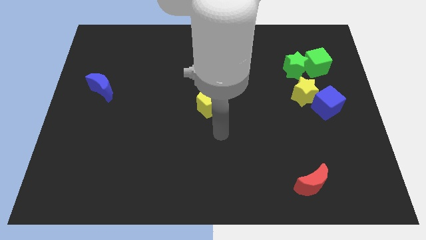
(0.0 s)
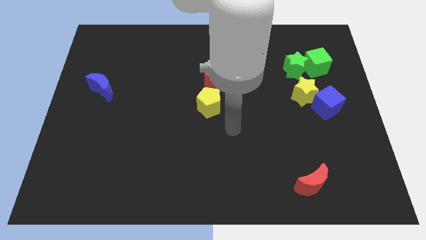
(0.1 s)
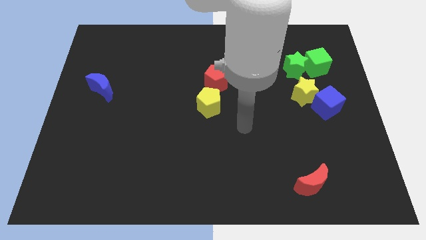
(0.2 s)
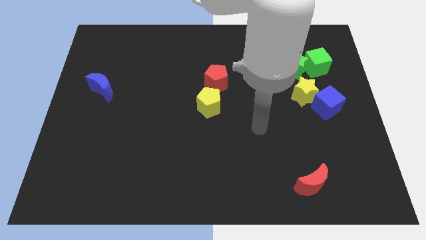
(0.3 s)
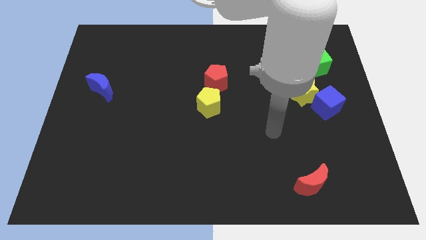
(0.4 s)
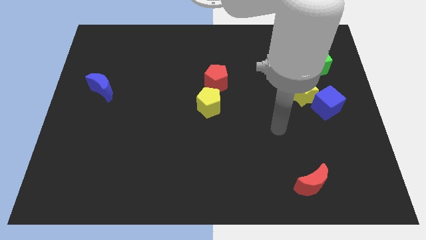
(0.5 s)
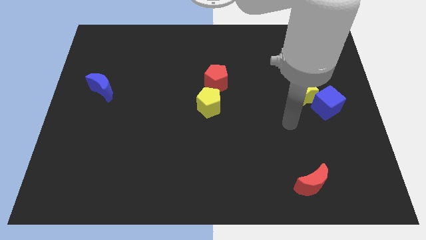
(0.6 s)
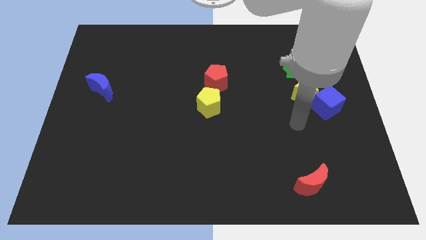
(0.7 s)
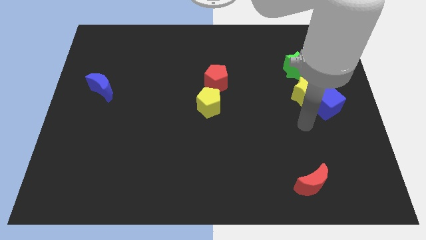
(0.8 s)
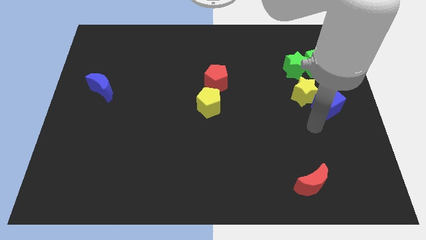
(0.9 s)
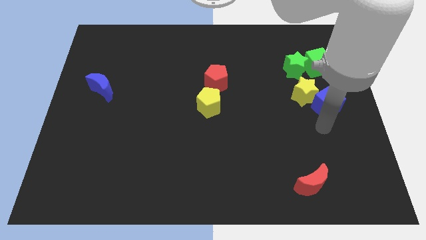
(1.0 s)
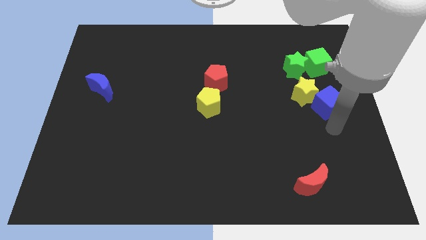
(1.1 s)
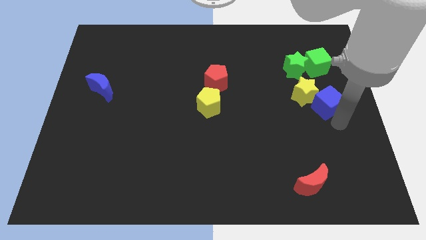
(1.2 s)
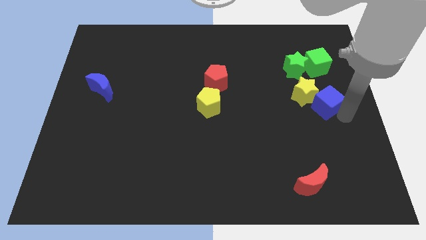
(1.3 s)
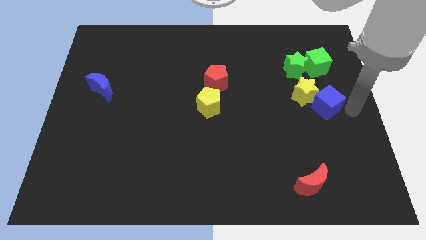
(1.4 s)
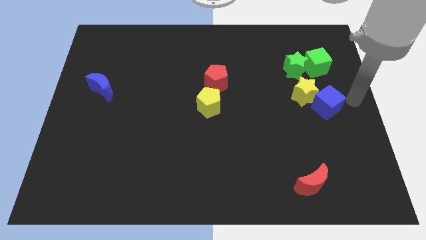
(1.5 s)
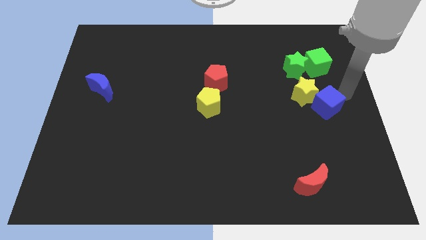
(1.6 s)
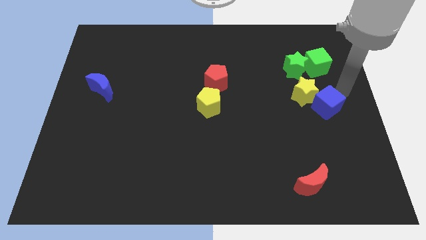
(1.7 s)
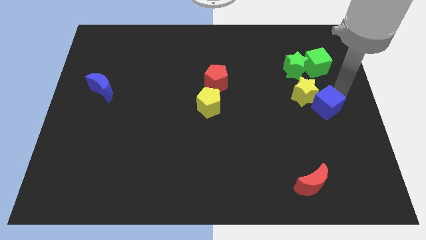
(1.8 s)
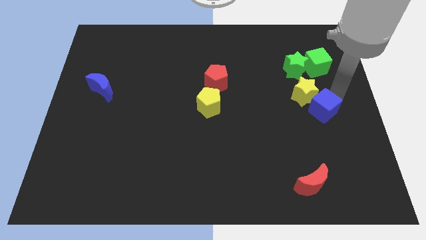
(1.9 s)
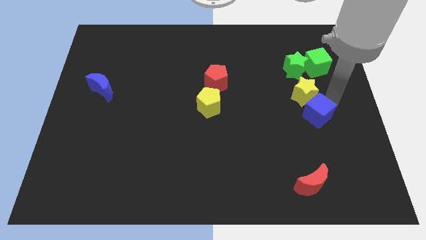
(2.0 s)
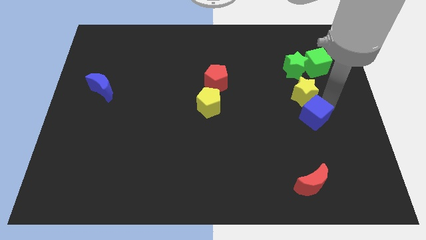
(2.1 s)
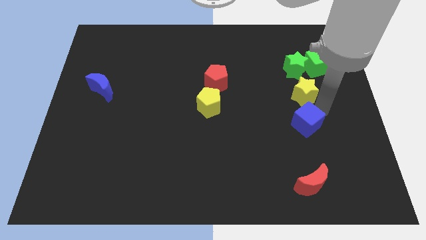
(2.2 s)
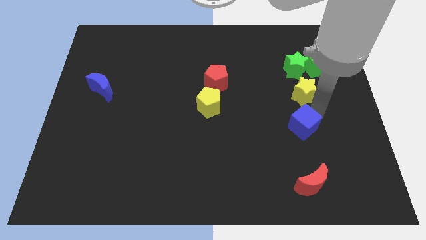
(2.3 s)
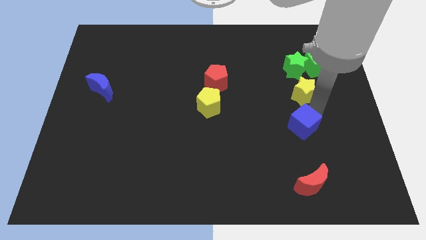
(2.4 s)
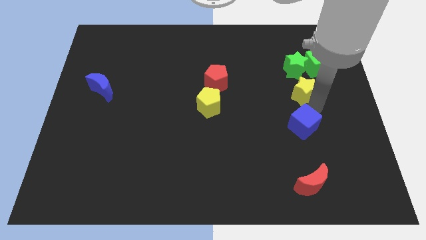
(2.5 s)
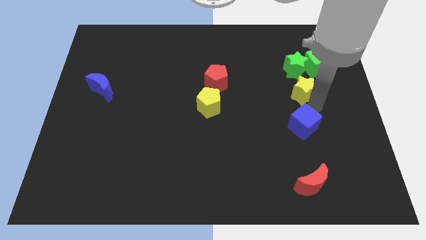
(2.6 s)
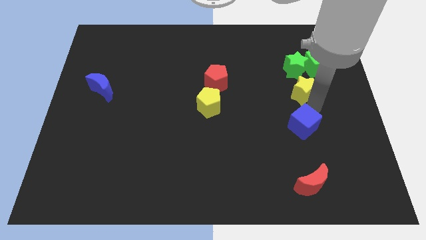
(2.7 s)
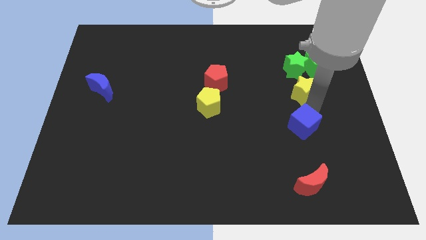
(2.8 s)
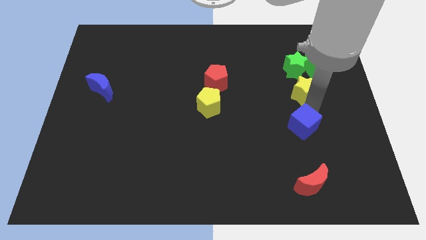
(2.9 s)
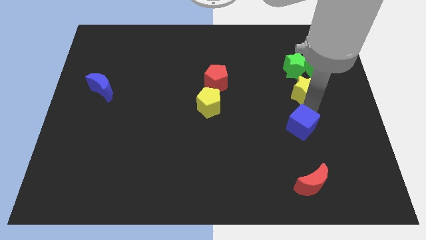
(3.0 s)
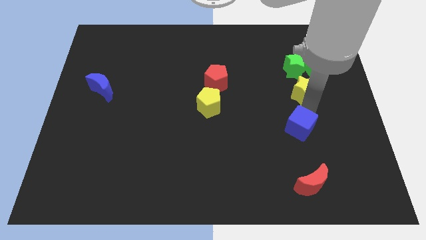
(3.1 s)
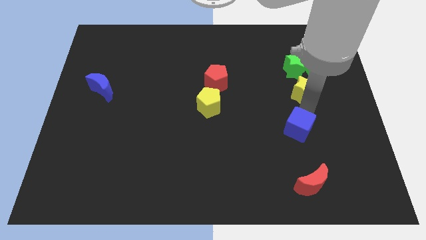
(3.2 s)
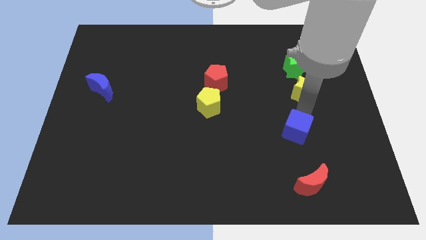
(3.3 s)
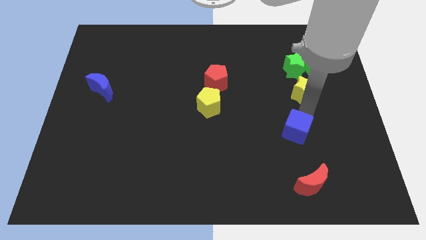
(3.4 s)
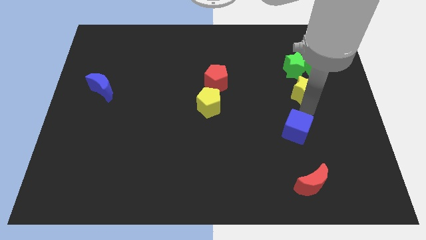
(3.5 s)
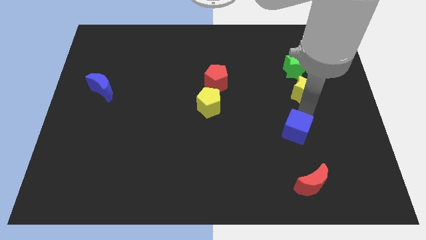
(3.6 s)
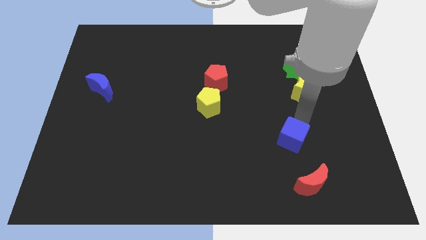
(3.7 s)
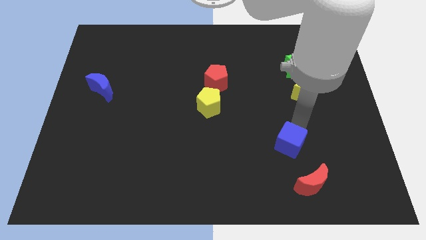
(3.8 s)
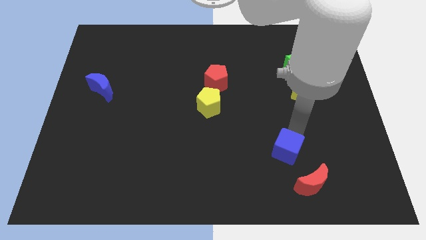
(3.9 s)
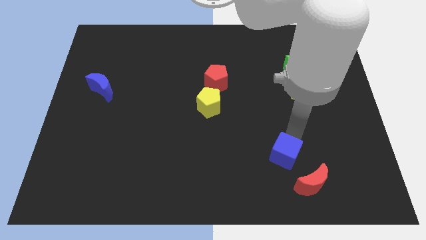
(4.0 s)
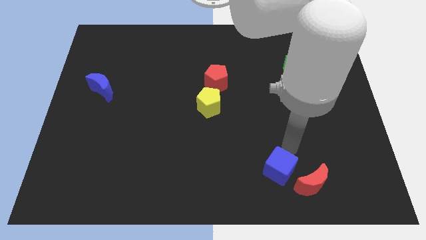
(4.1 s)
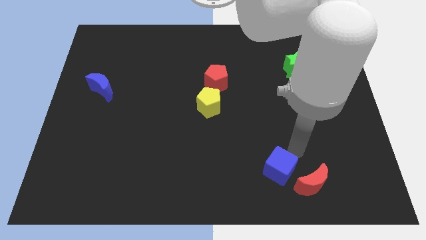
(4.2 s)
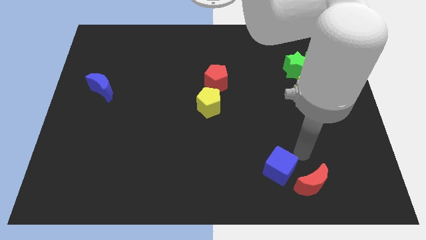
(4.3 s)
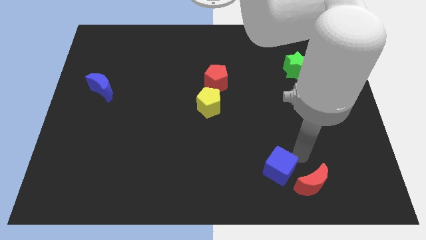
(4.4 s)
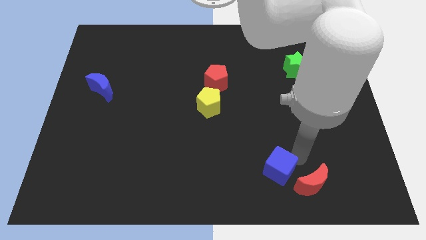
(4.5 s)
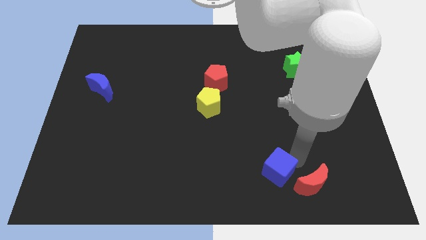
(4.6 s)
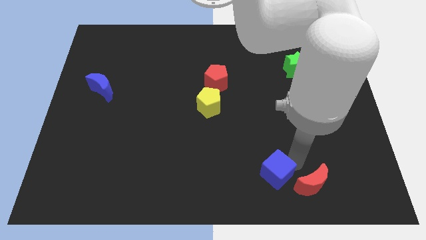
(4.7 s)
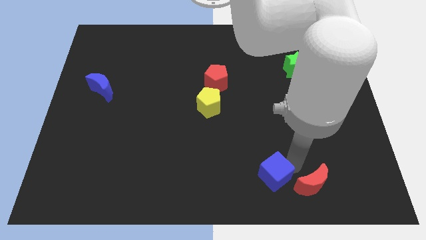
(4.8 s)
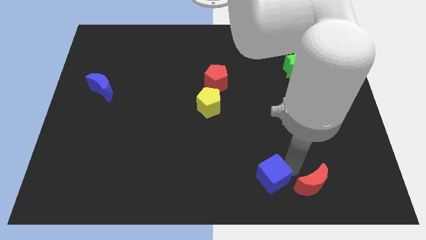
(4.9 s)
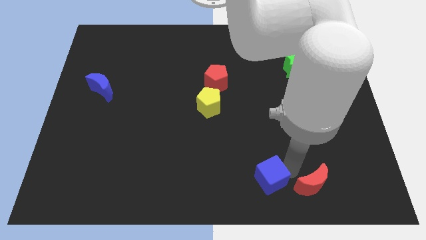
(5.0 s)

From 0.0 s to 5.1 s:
put the blue cube to the bottom side

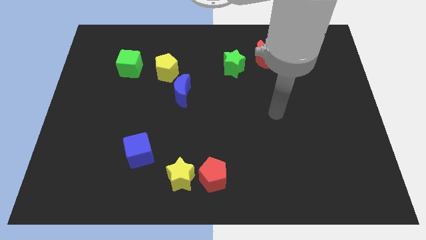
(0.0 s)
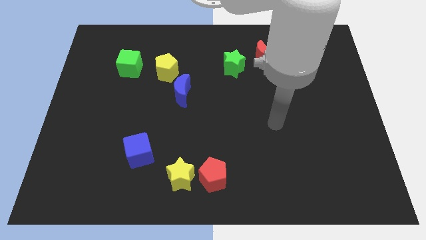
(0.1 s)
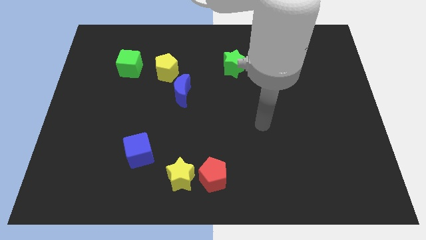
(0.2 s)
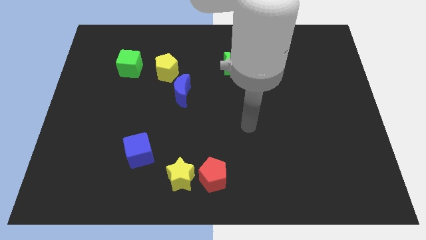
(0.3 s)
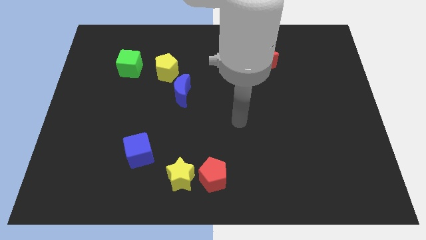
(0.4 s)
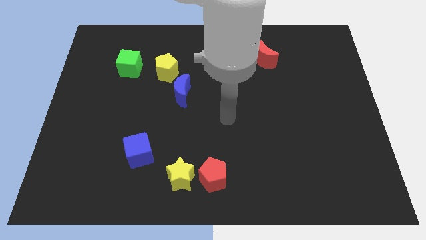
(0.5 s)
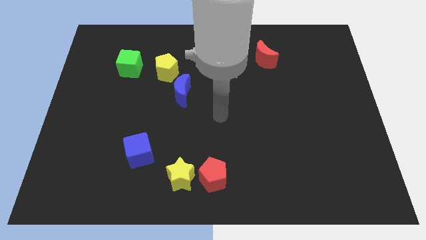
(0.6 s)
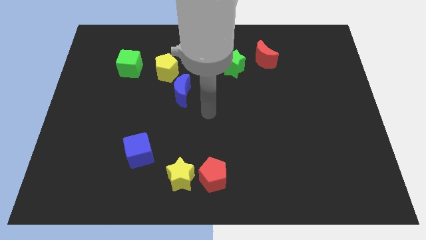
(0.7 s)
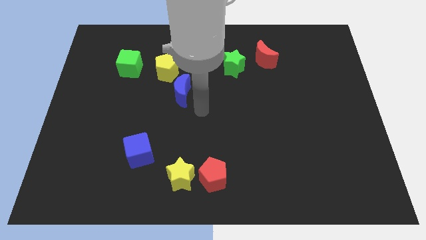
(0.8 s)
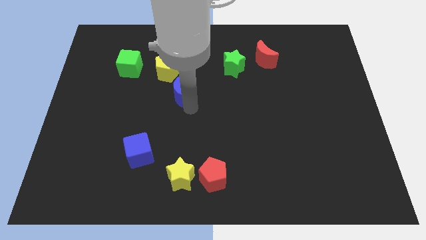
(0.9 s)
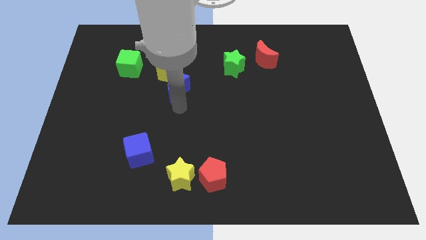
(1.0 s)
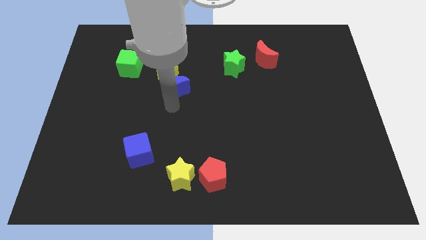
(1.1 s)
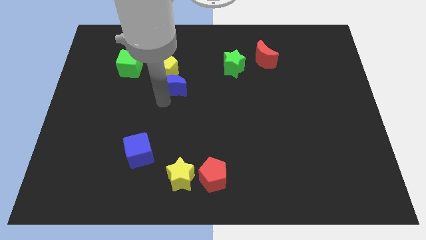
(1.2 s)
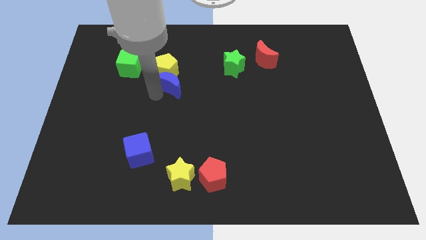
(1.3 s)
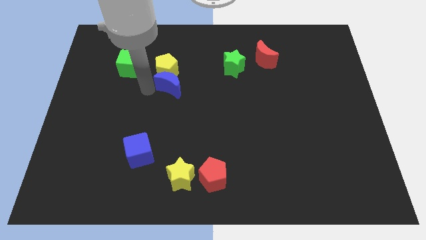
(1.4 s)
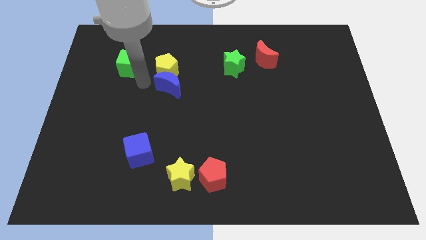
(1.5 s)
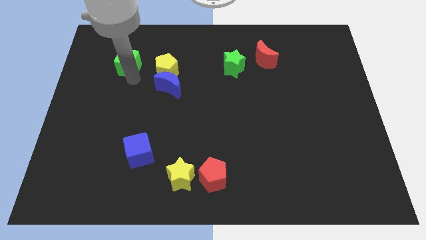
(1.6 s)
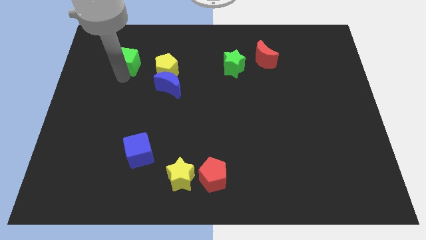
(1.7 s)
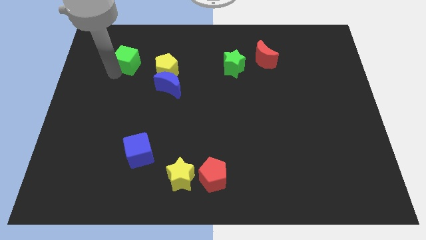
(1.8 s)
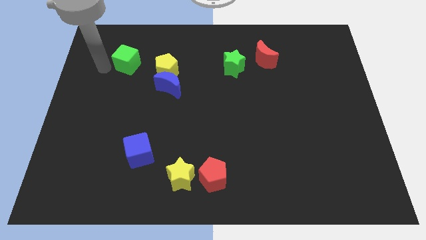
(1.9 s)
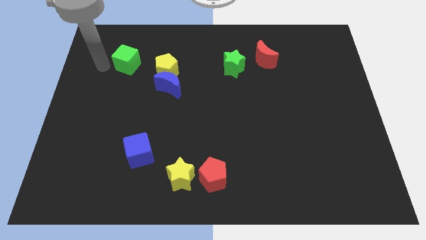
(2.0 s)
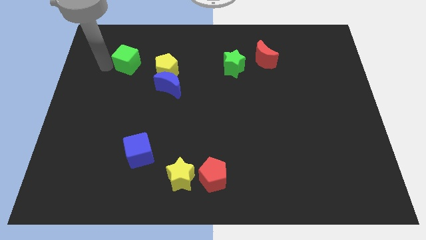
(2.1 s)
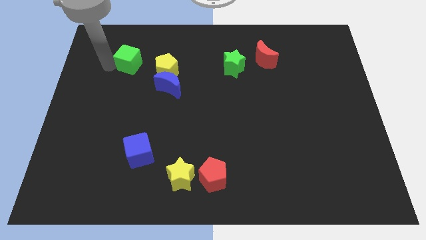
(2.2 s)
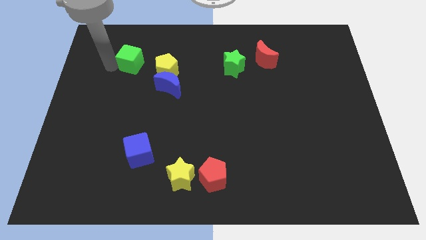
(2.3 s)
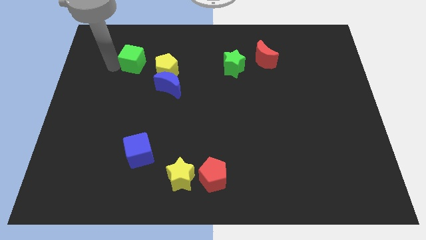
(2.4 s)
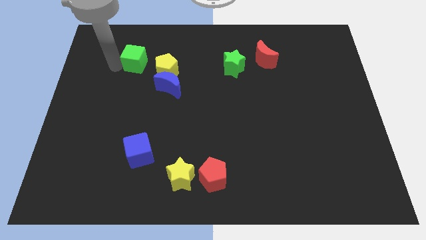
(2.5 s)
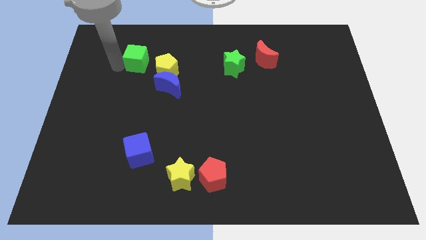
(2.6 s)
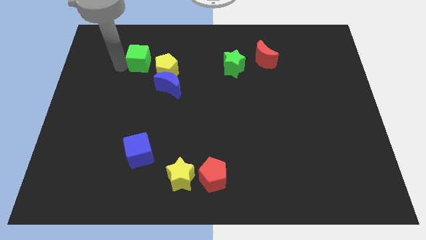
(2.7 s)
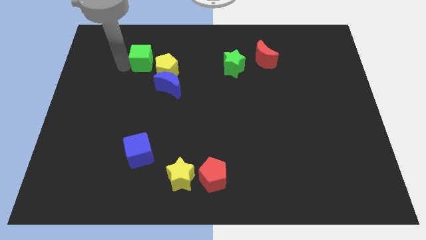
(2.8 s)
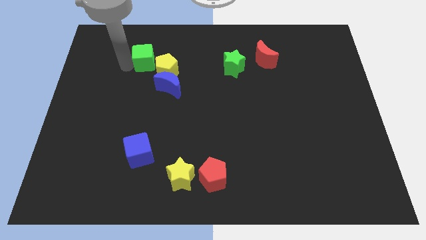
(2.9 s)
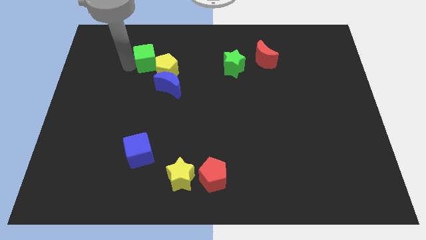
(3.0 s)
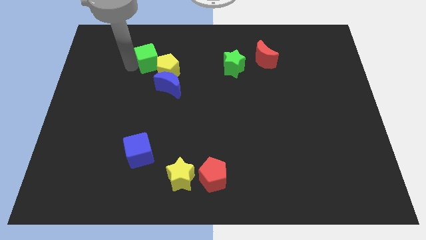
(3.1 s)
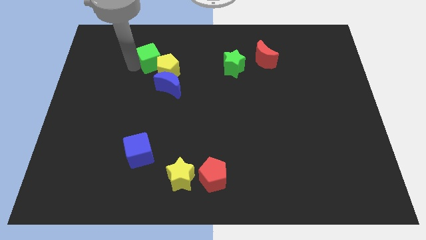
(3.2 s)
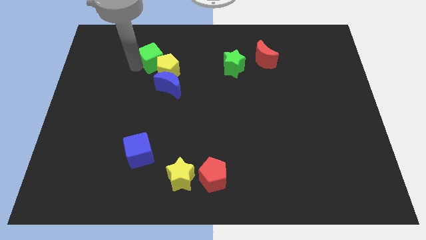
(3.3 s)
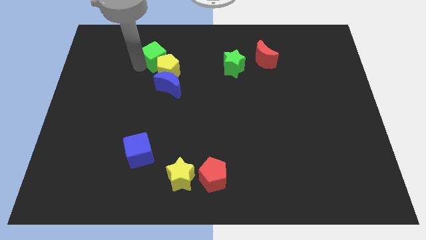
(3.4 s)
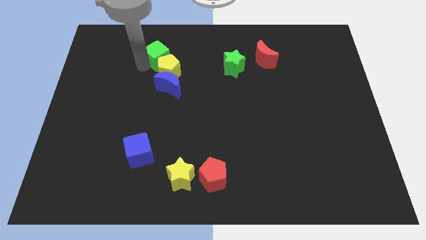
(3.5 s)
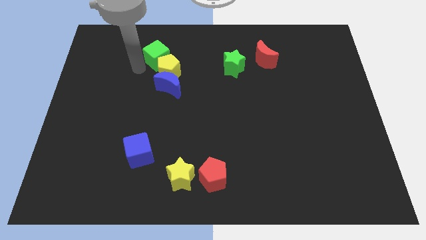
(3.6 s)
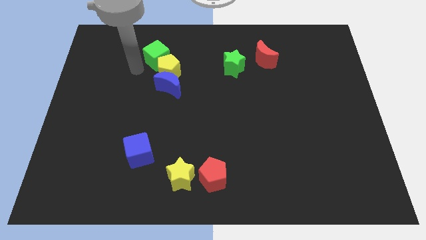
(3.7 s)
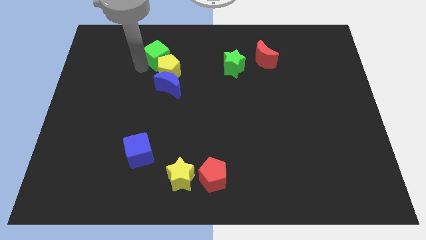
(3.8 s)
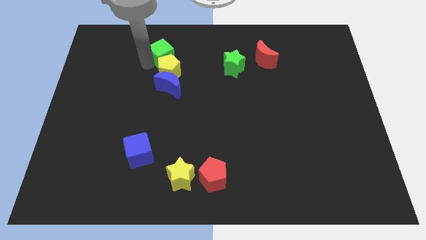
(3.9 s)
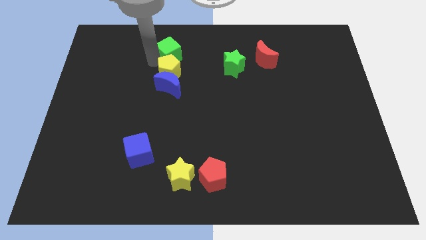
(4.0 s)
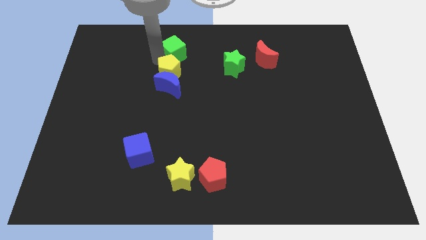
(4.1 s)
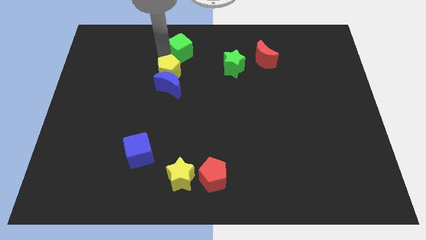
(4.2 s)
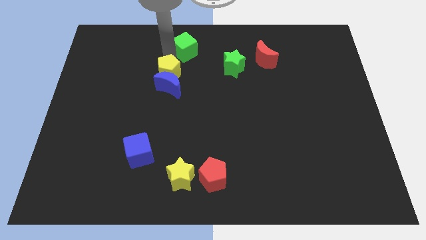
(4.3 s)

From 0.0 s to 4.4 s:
move the green cube to the towards your base
